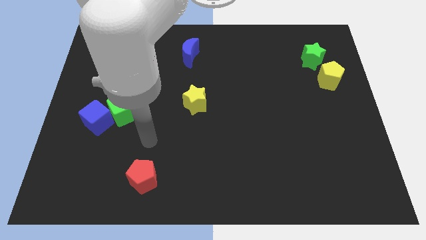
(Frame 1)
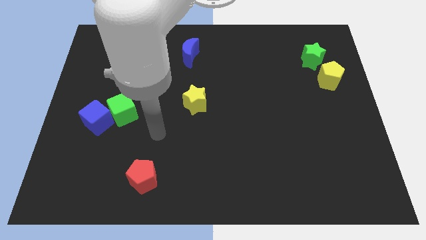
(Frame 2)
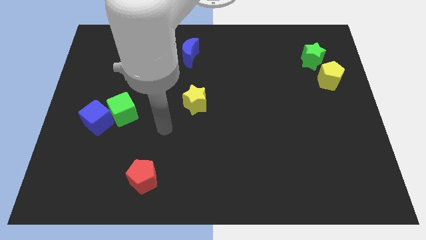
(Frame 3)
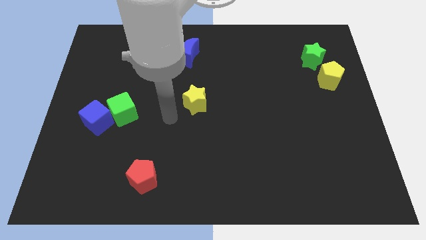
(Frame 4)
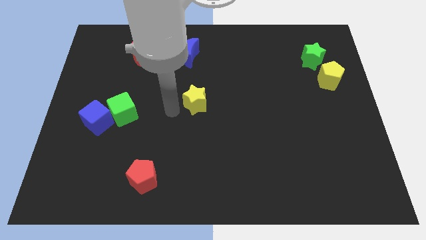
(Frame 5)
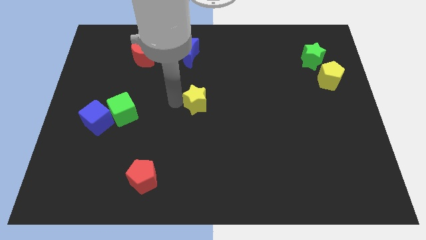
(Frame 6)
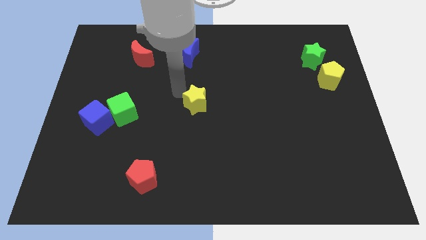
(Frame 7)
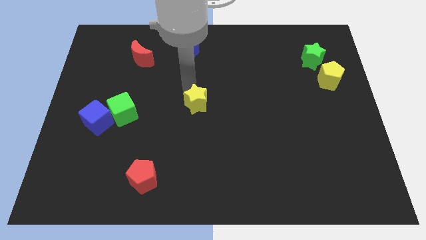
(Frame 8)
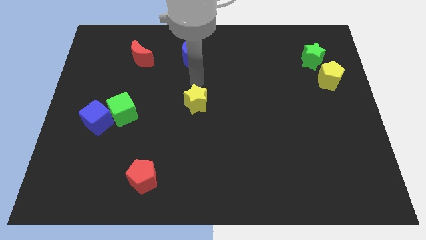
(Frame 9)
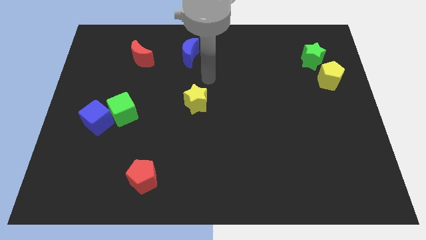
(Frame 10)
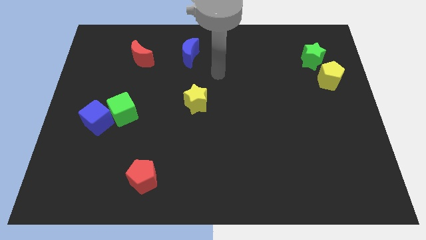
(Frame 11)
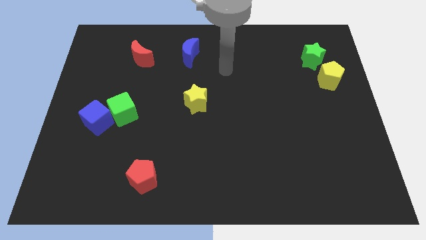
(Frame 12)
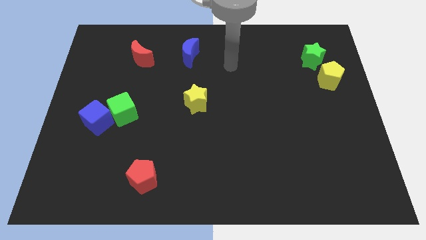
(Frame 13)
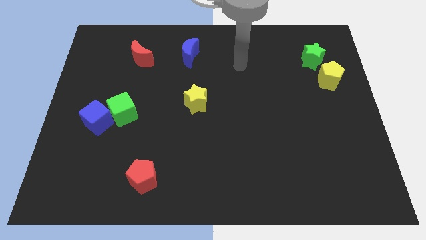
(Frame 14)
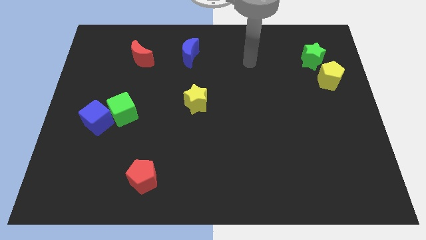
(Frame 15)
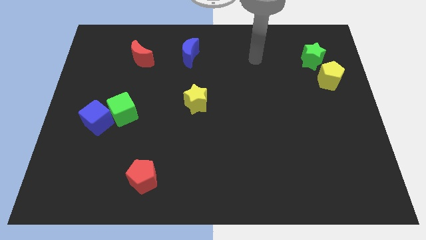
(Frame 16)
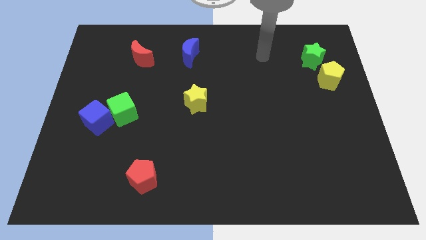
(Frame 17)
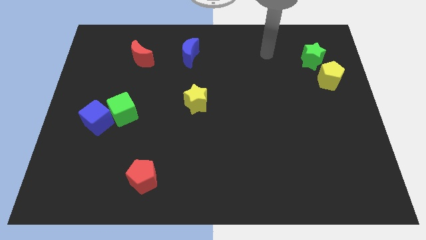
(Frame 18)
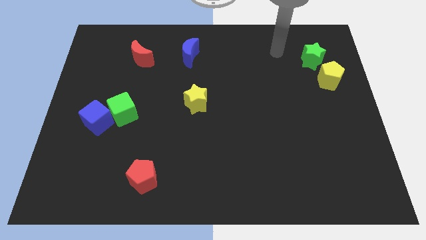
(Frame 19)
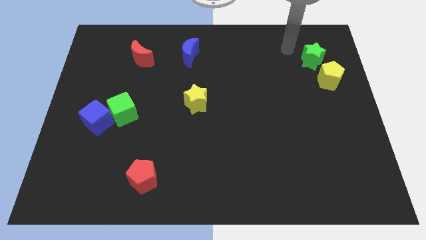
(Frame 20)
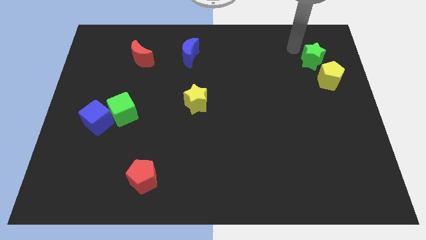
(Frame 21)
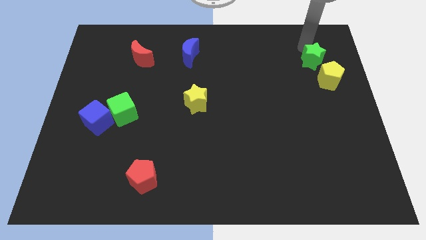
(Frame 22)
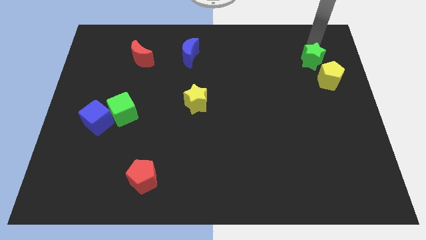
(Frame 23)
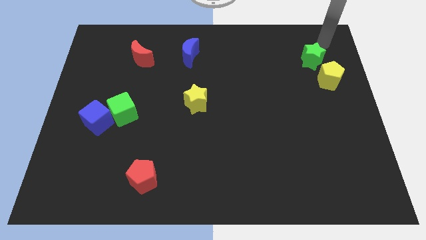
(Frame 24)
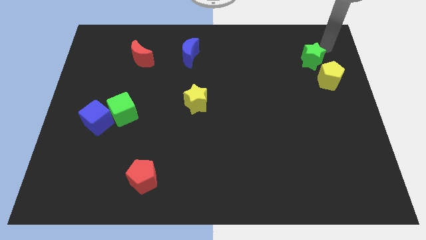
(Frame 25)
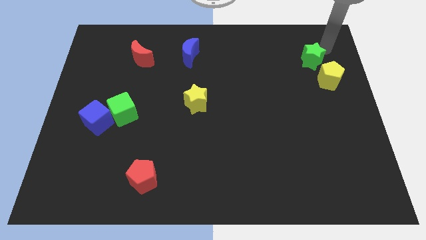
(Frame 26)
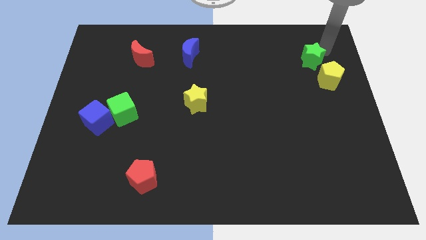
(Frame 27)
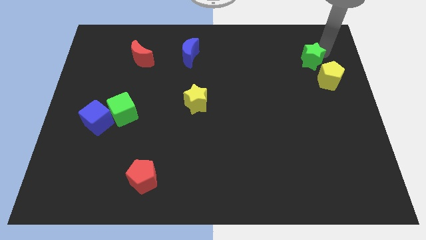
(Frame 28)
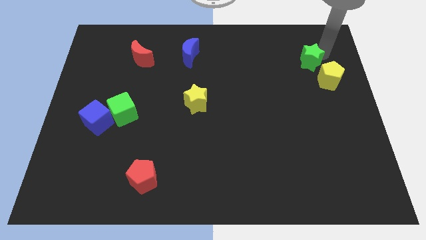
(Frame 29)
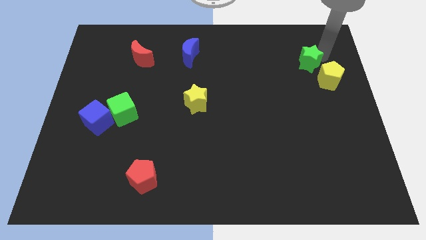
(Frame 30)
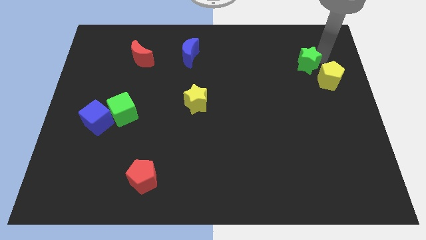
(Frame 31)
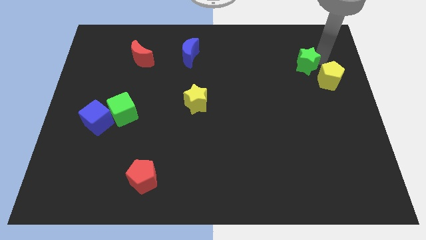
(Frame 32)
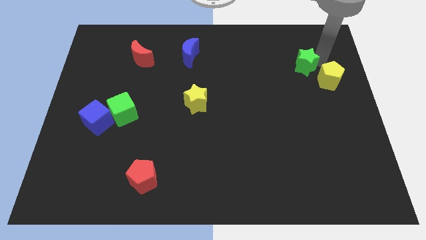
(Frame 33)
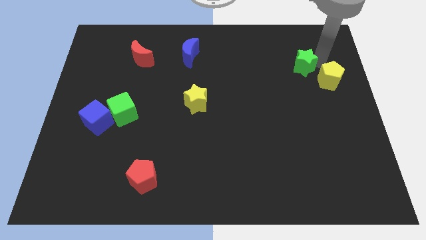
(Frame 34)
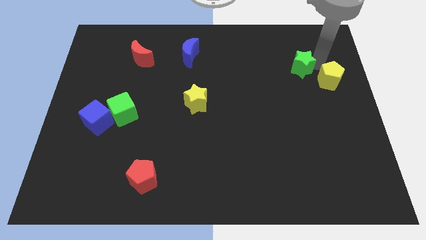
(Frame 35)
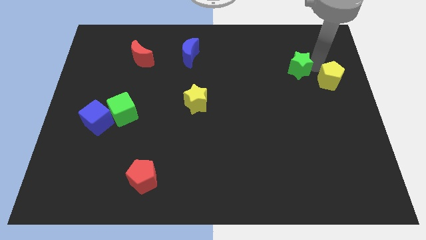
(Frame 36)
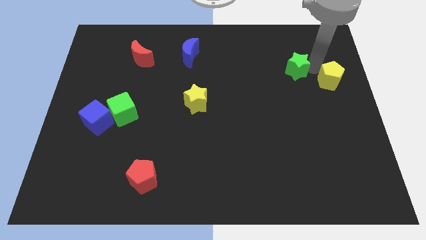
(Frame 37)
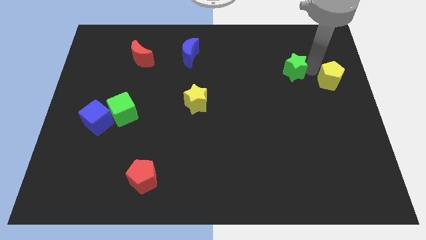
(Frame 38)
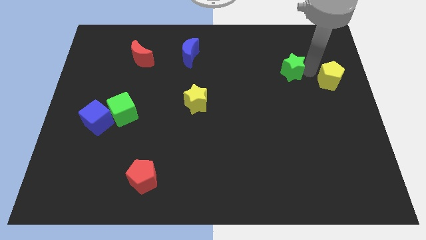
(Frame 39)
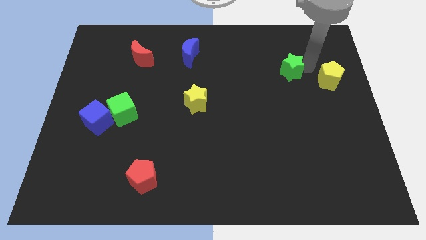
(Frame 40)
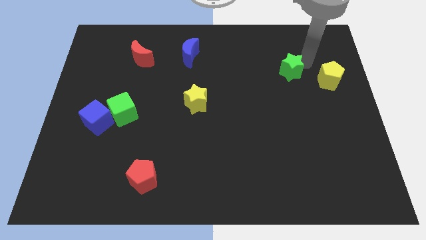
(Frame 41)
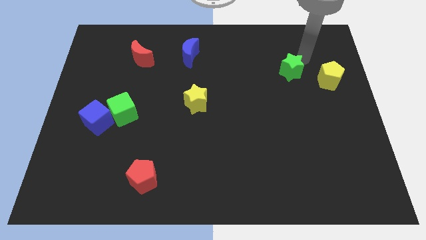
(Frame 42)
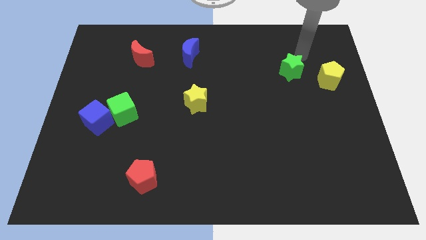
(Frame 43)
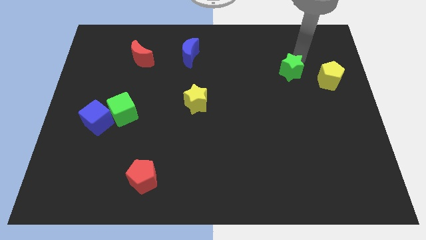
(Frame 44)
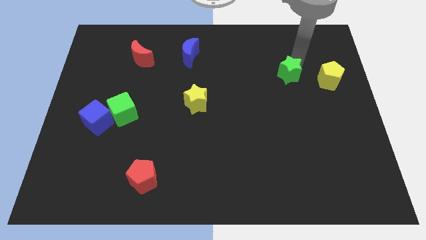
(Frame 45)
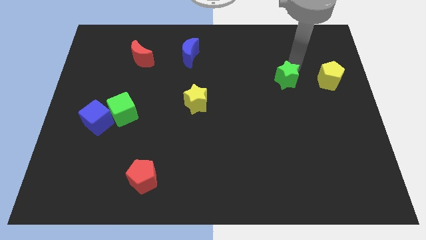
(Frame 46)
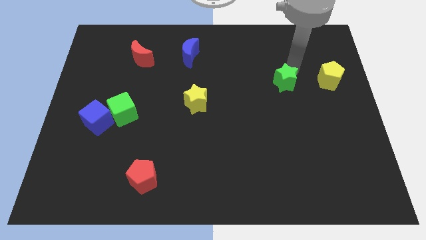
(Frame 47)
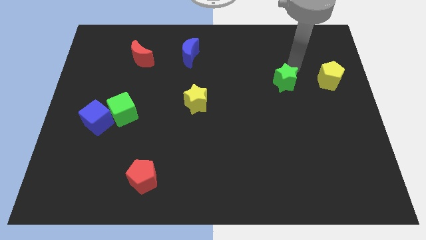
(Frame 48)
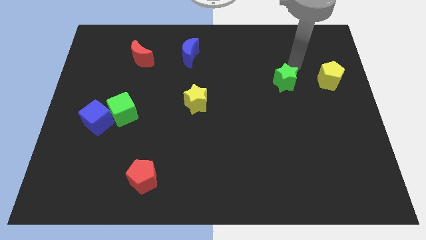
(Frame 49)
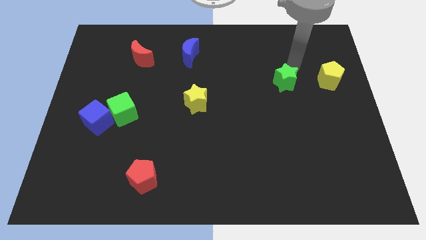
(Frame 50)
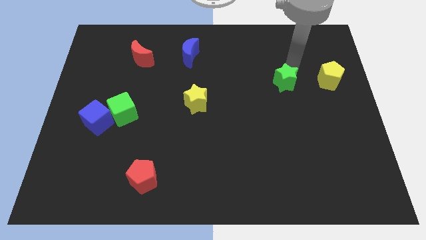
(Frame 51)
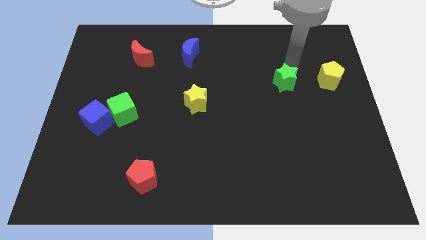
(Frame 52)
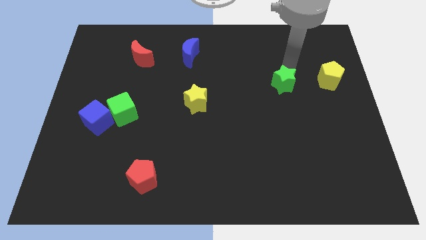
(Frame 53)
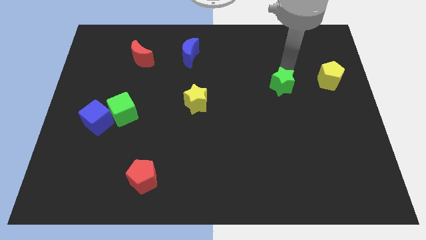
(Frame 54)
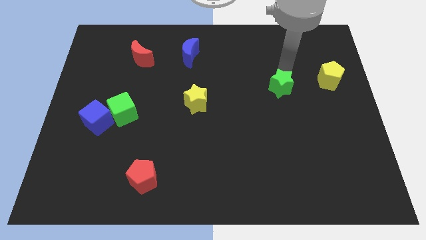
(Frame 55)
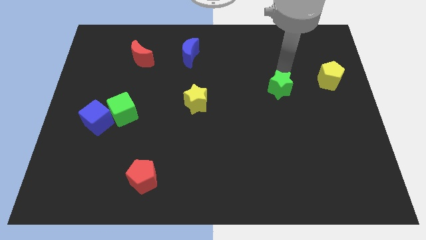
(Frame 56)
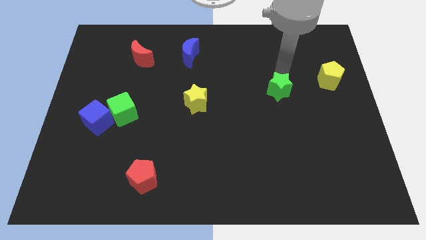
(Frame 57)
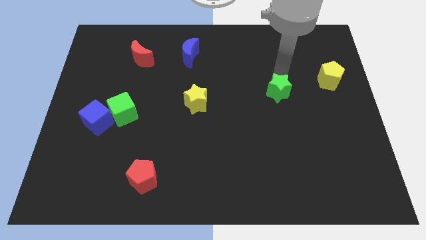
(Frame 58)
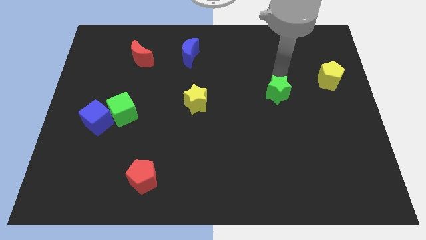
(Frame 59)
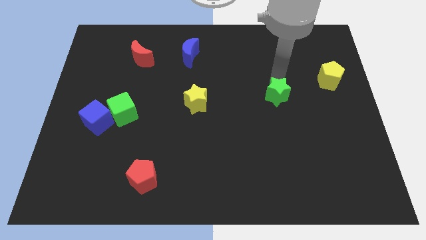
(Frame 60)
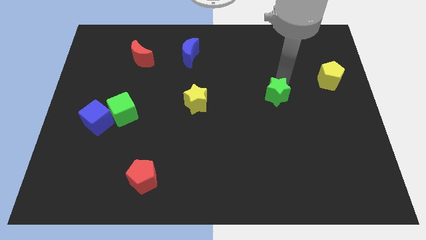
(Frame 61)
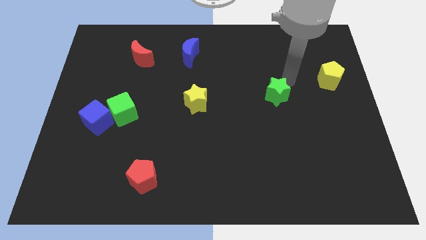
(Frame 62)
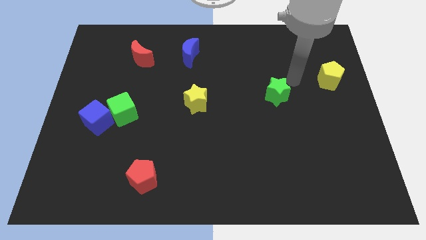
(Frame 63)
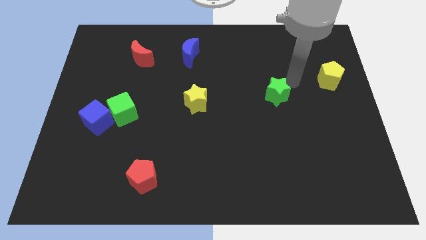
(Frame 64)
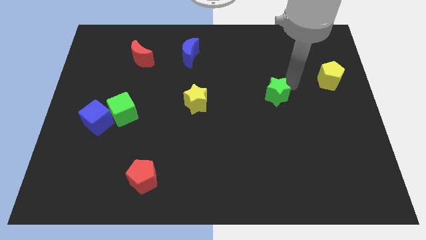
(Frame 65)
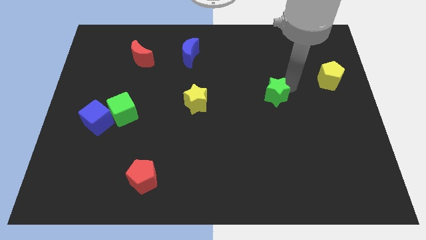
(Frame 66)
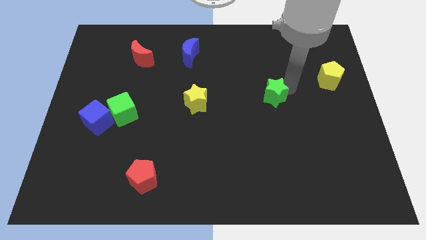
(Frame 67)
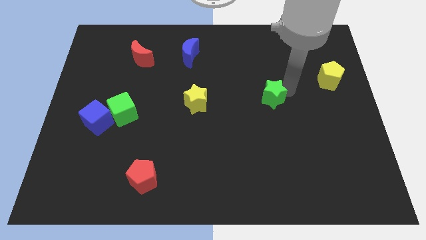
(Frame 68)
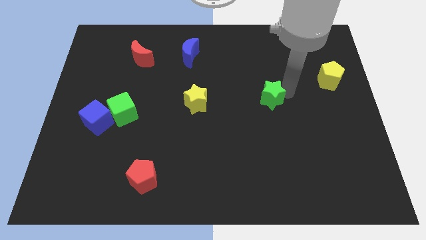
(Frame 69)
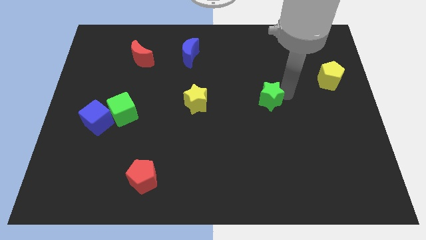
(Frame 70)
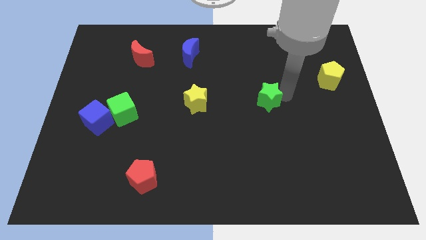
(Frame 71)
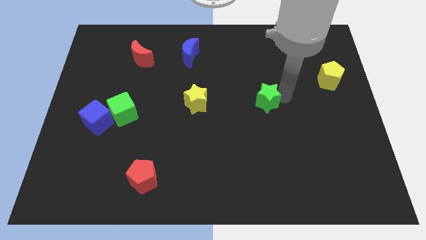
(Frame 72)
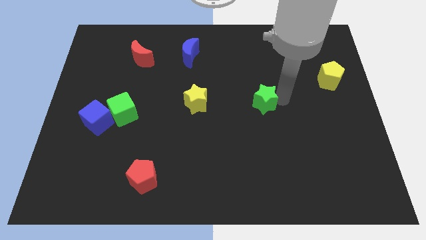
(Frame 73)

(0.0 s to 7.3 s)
slide the green star downwards and then left

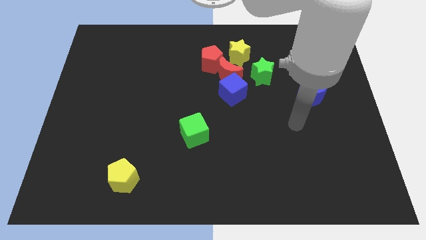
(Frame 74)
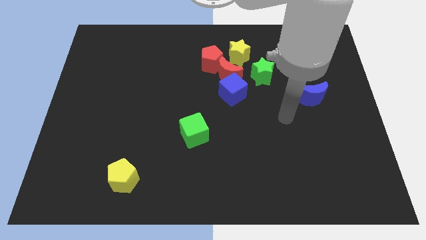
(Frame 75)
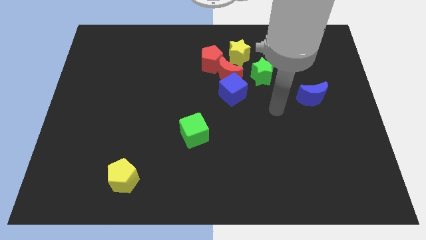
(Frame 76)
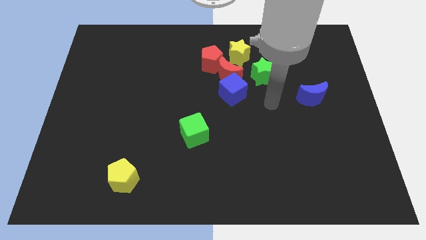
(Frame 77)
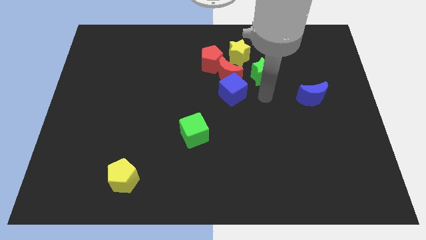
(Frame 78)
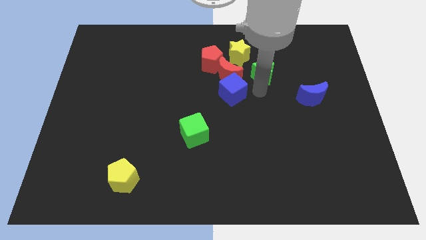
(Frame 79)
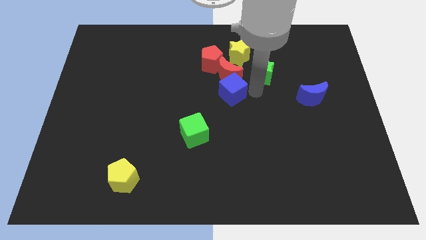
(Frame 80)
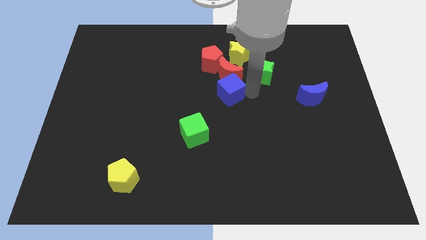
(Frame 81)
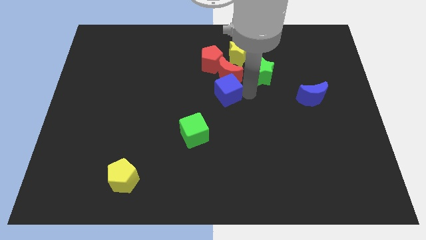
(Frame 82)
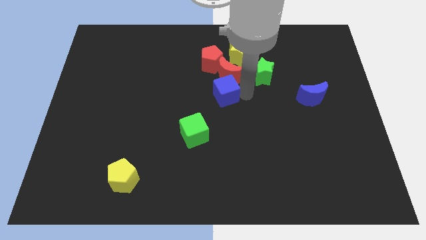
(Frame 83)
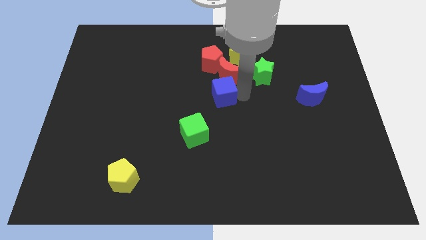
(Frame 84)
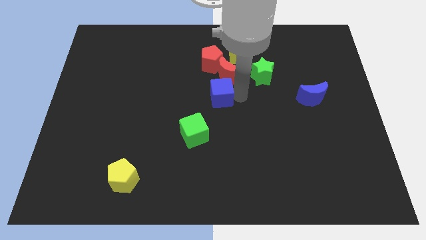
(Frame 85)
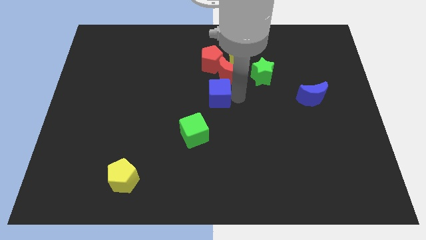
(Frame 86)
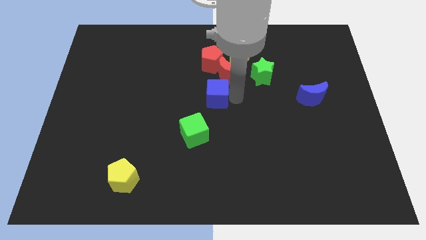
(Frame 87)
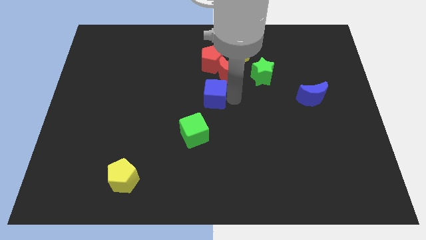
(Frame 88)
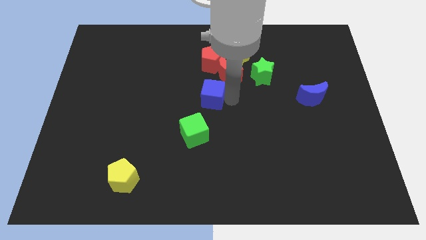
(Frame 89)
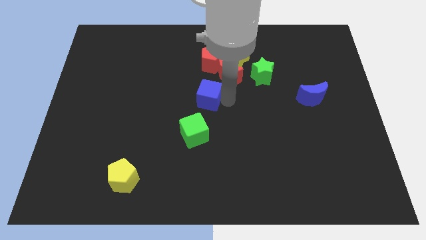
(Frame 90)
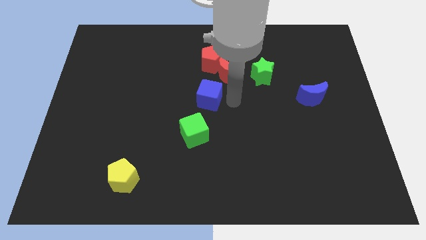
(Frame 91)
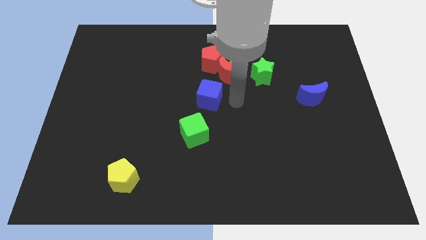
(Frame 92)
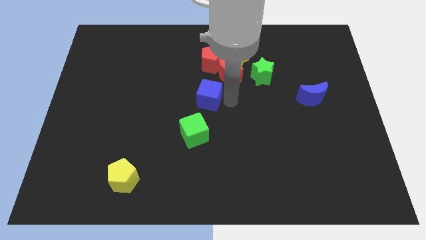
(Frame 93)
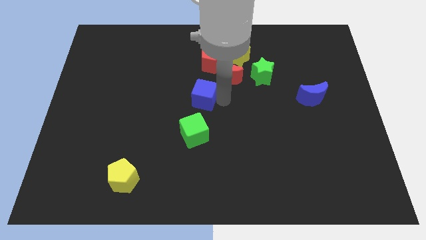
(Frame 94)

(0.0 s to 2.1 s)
move the blue cube left slightly
